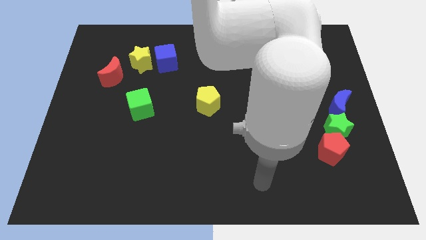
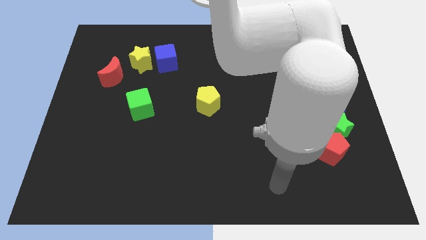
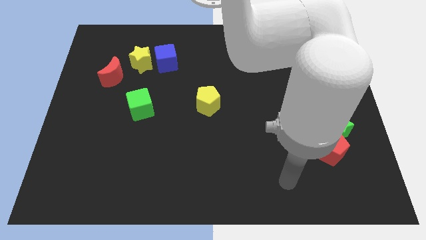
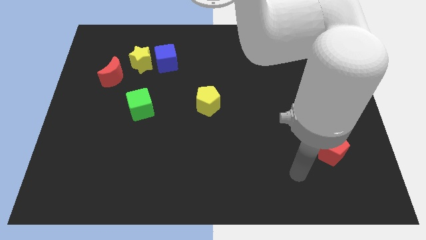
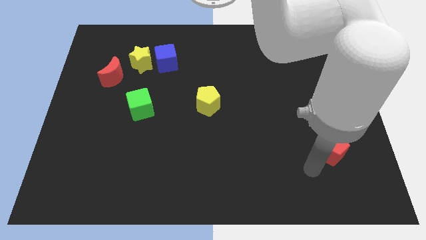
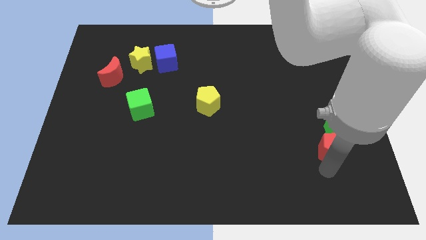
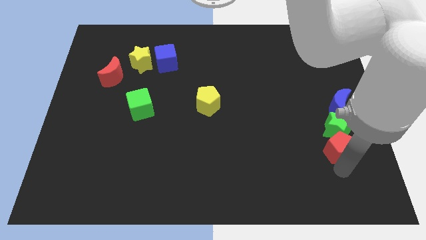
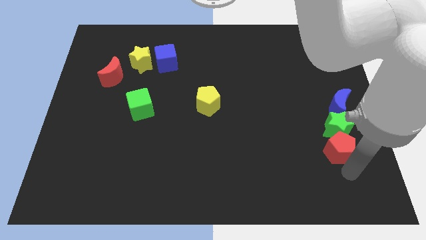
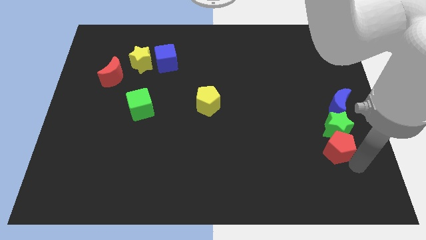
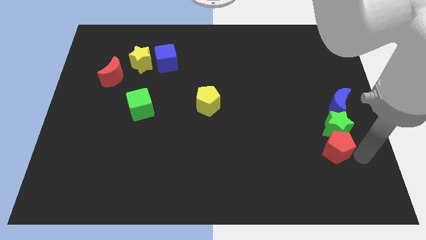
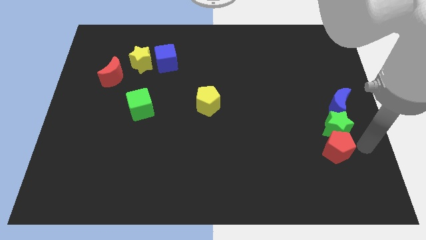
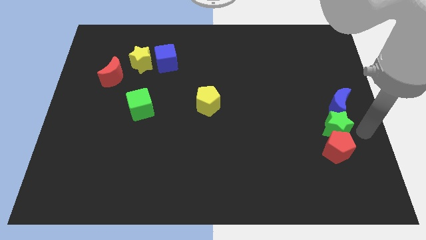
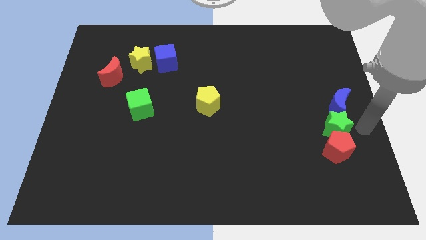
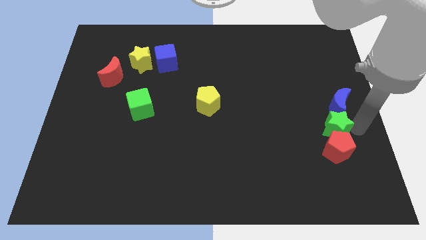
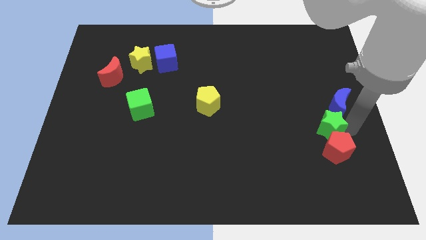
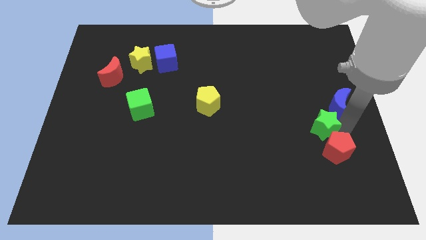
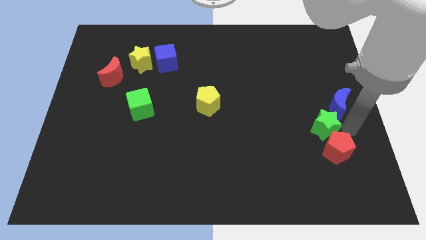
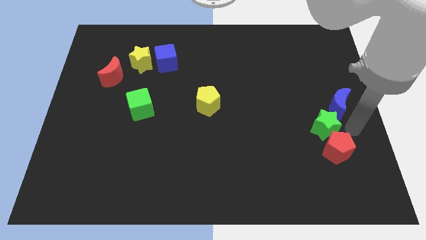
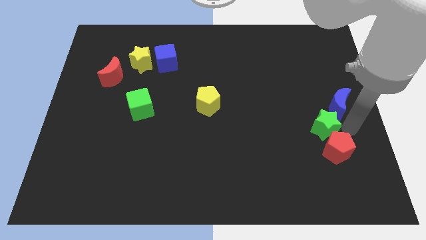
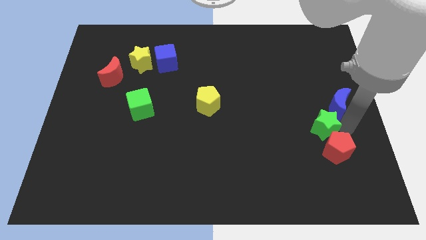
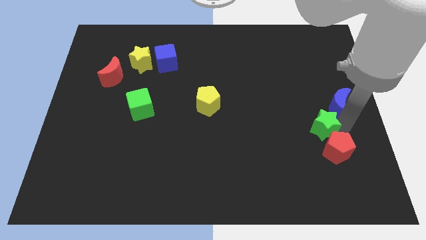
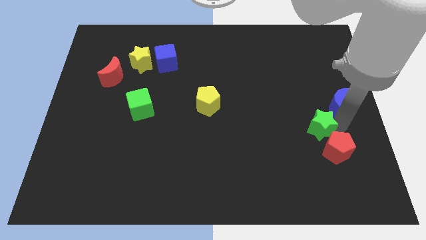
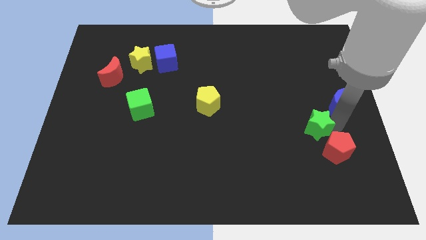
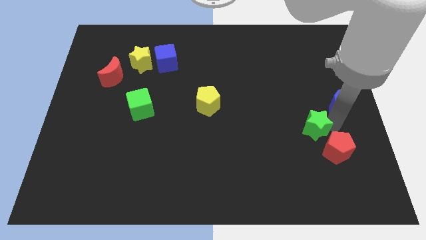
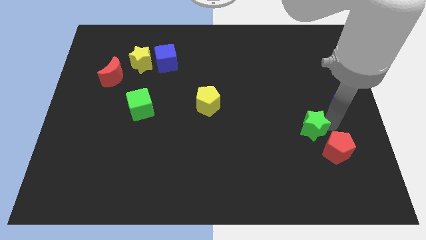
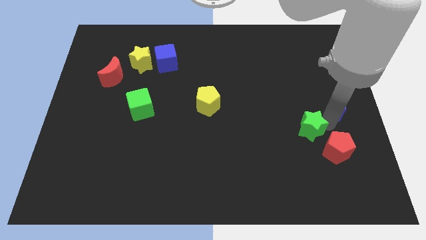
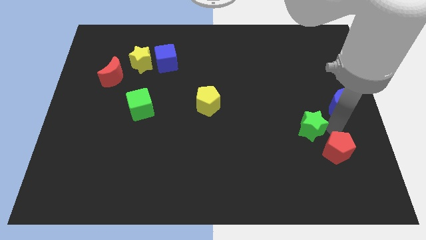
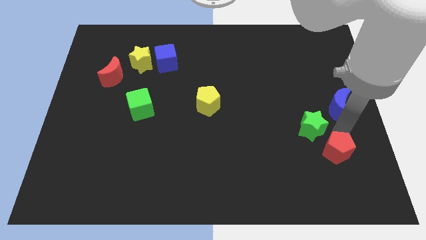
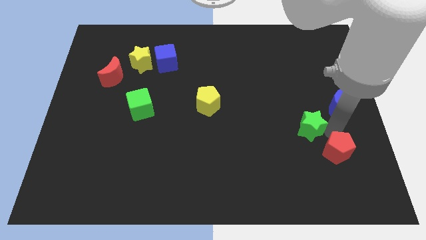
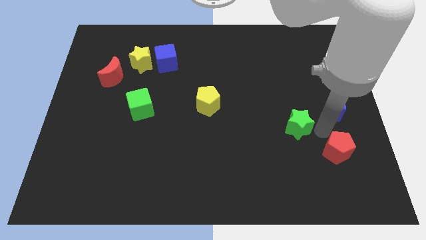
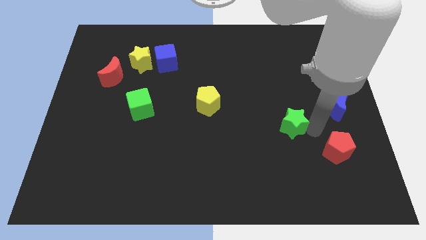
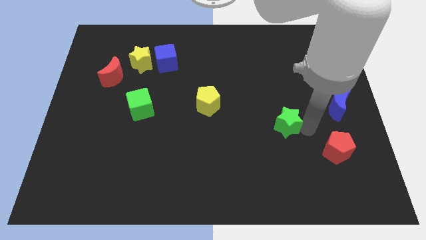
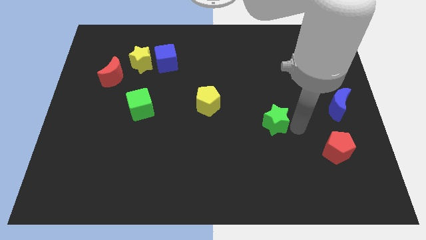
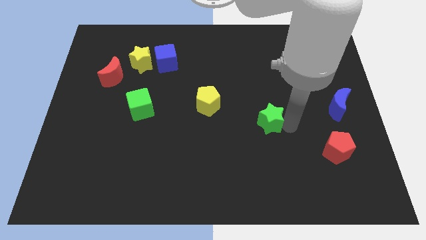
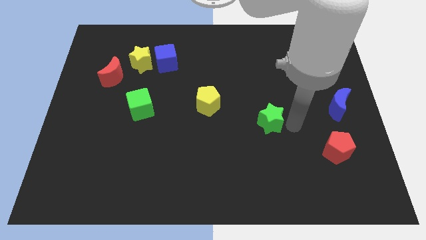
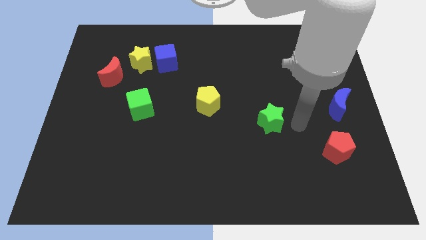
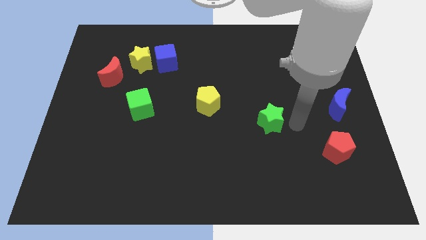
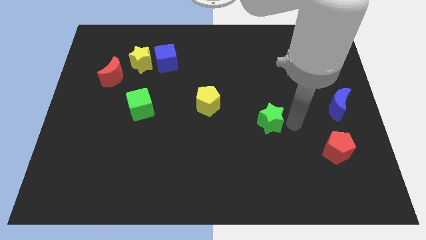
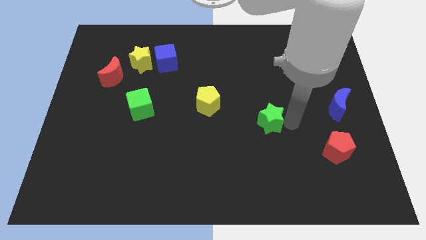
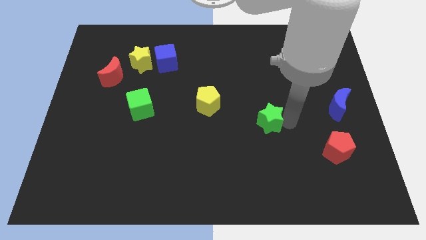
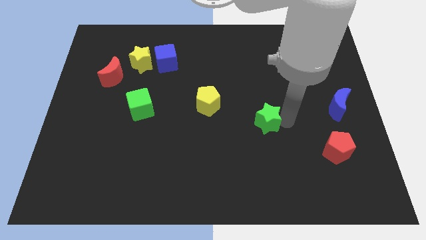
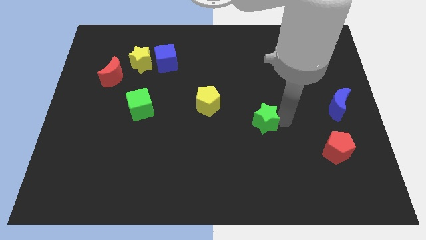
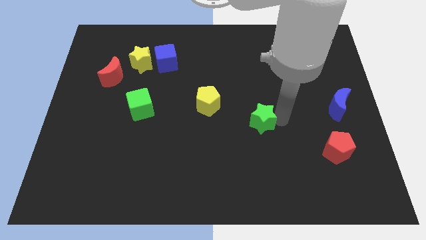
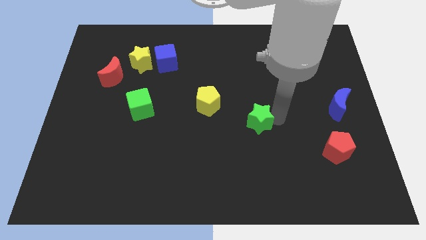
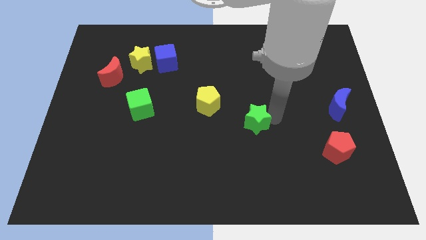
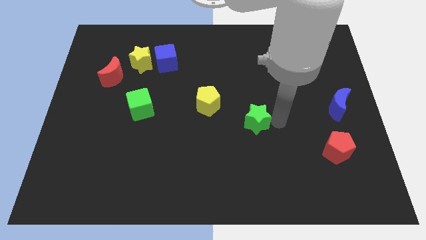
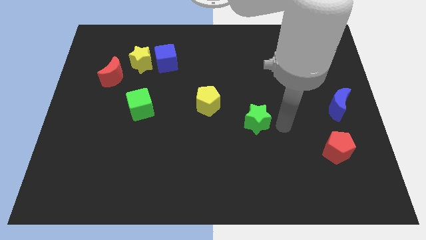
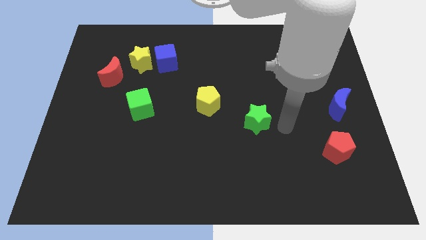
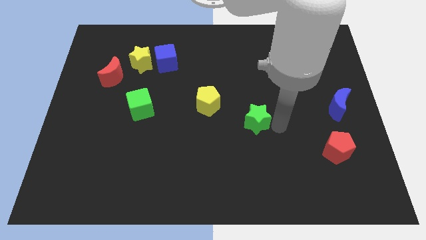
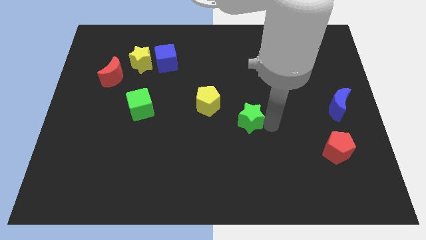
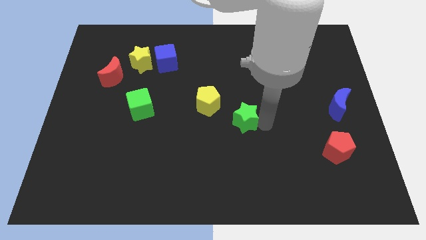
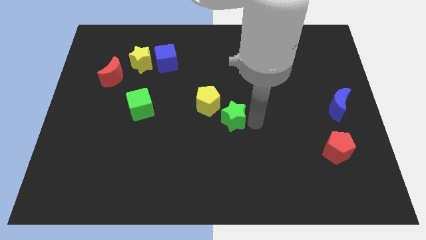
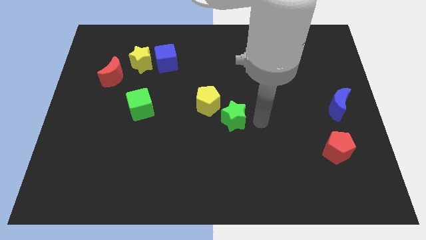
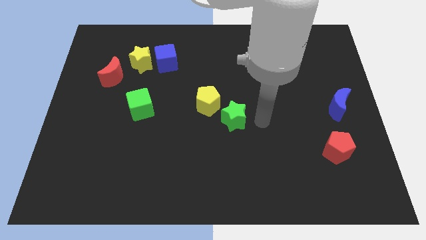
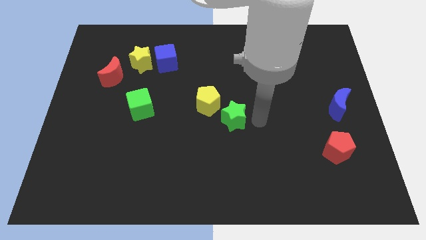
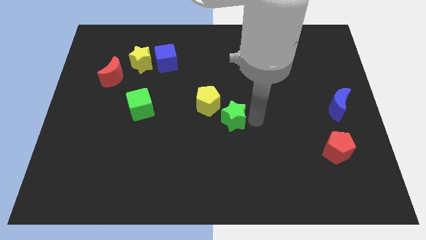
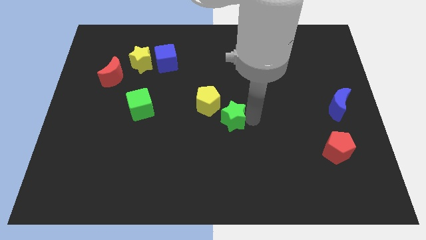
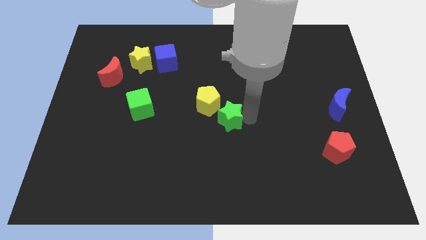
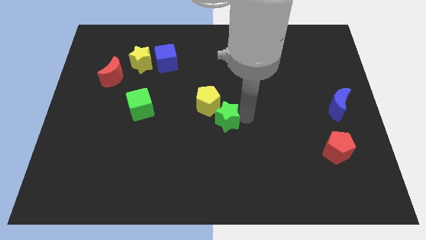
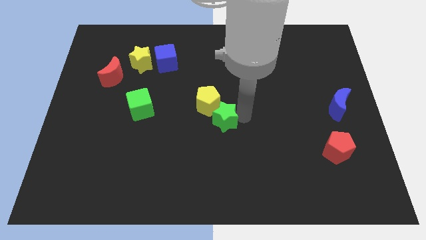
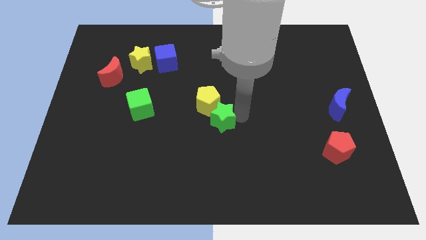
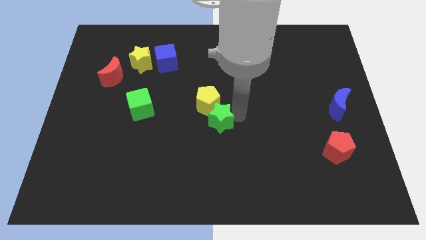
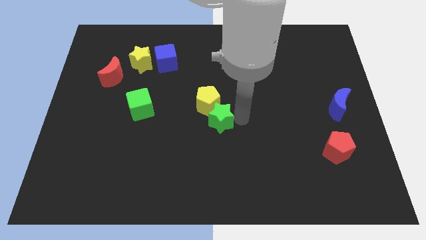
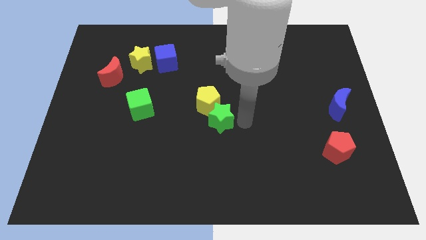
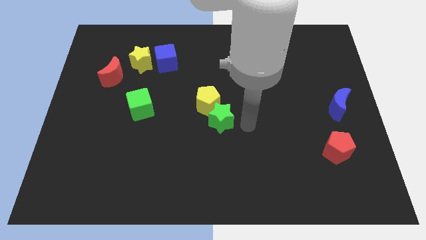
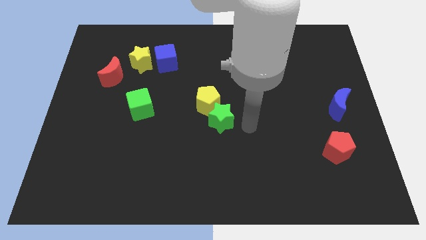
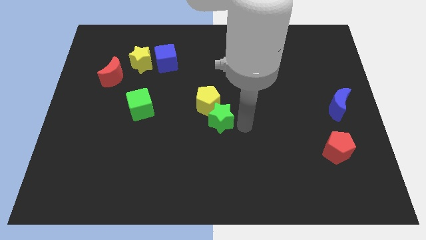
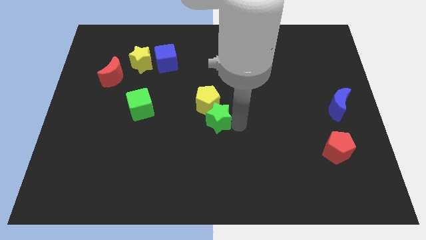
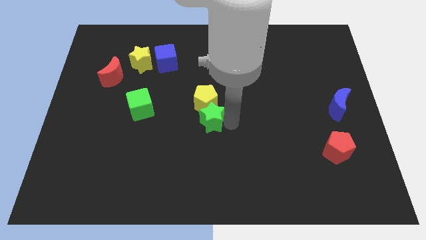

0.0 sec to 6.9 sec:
move the green star diagonally down and to the left of the yellow pentagon
